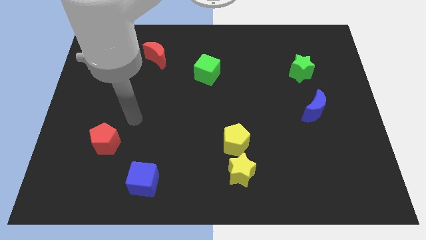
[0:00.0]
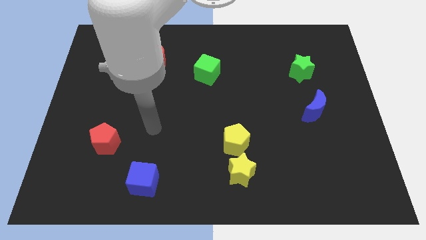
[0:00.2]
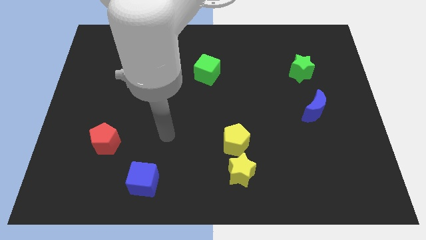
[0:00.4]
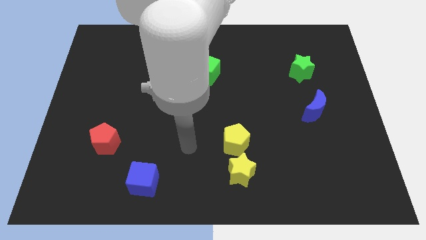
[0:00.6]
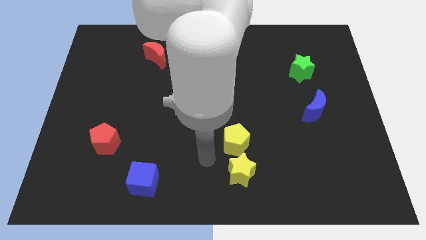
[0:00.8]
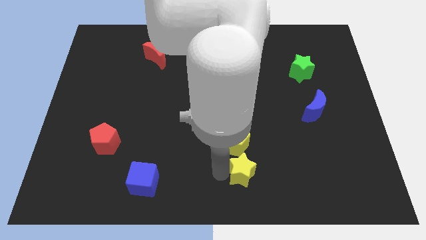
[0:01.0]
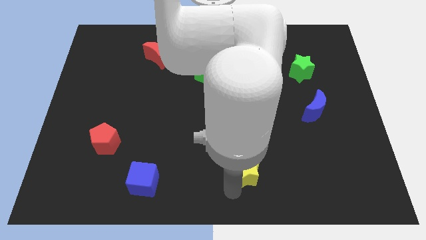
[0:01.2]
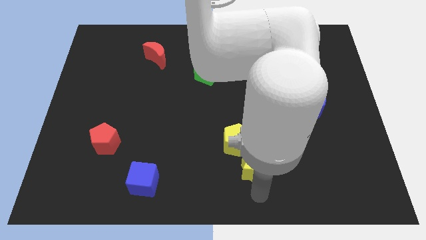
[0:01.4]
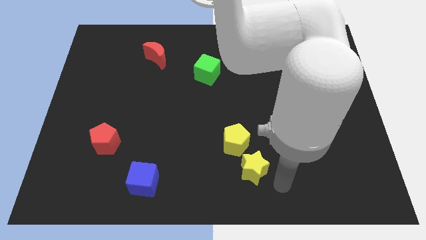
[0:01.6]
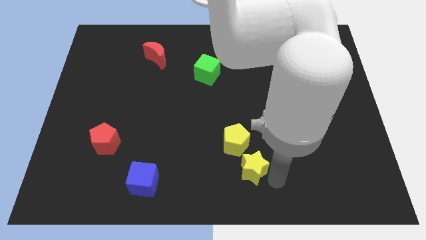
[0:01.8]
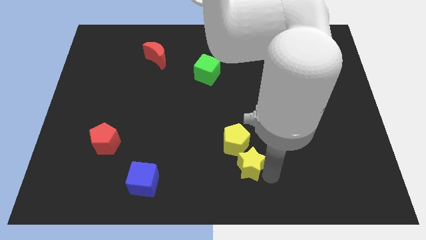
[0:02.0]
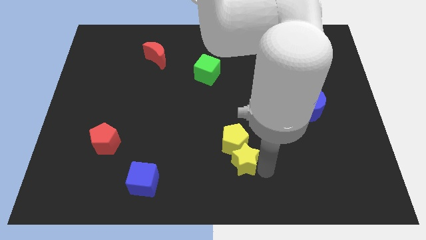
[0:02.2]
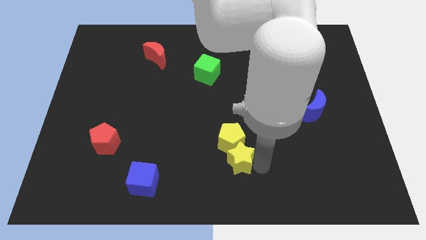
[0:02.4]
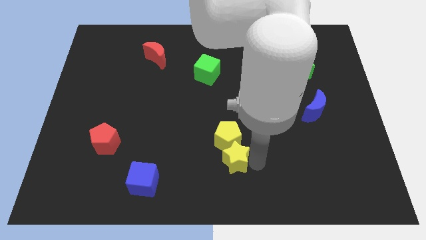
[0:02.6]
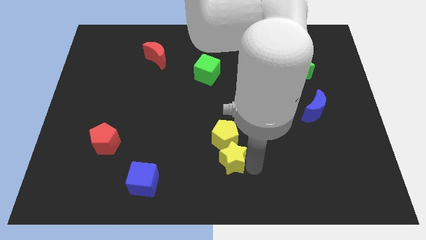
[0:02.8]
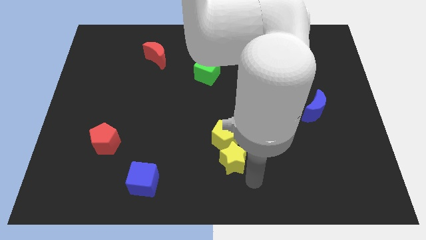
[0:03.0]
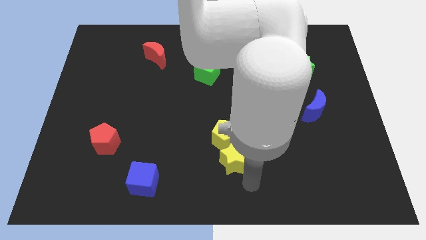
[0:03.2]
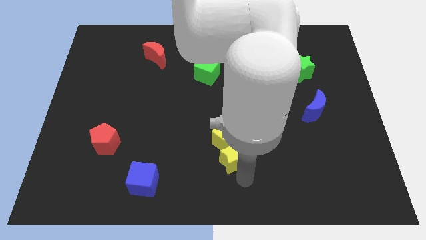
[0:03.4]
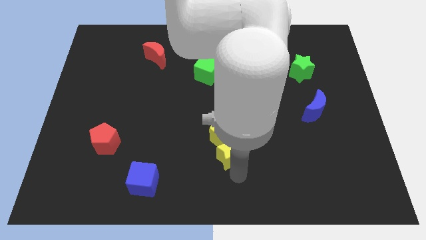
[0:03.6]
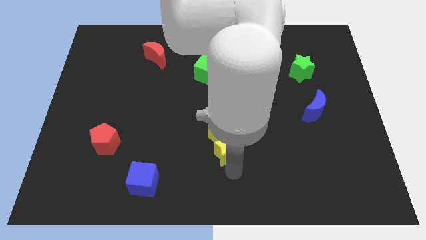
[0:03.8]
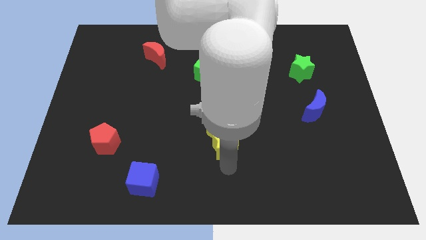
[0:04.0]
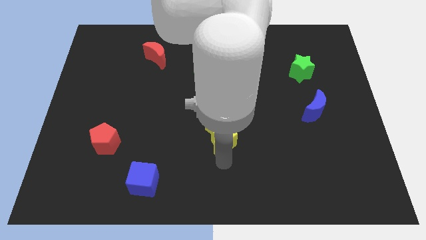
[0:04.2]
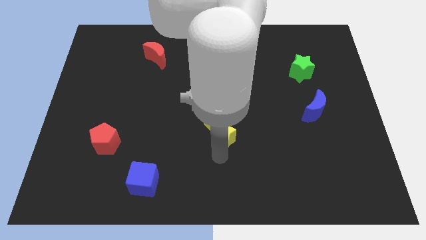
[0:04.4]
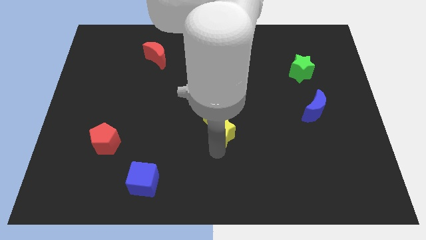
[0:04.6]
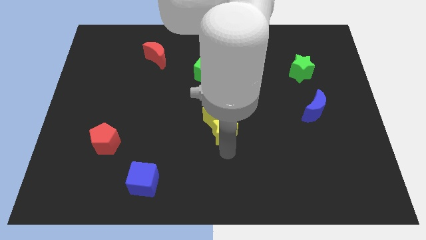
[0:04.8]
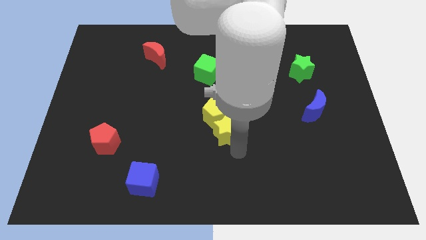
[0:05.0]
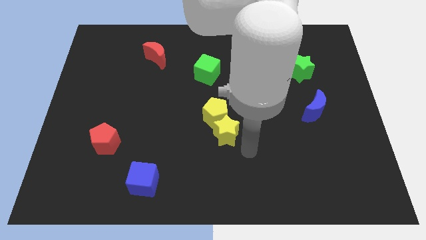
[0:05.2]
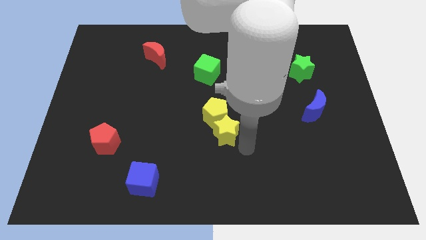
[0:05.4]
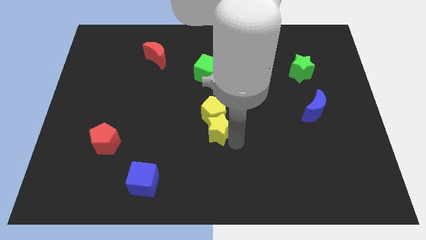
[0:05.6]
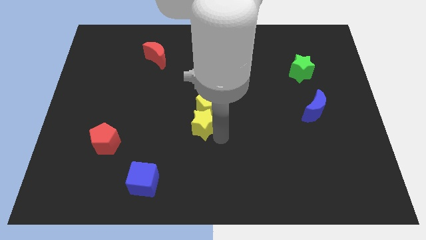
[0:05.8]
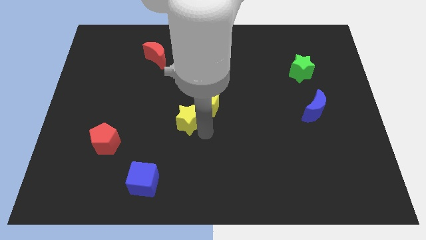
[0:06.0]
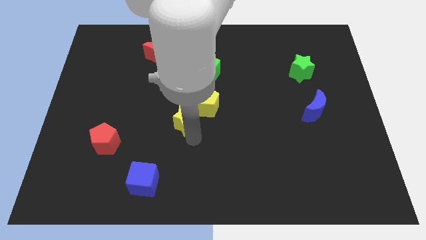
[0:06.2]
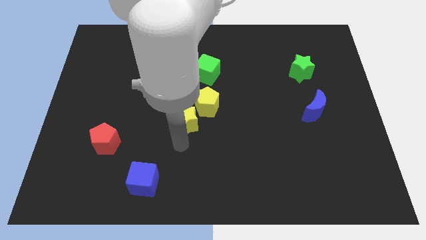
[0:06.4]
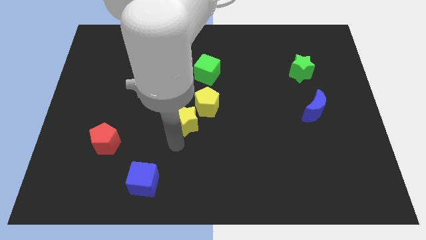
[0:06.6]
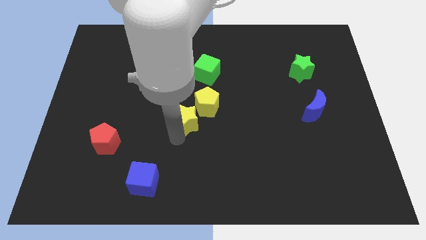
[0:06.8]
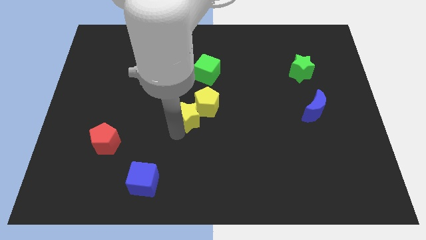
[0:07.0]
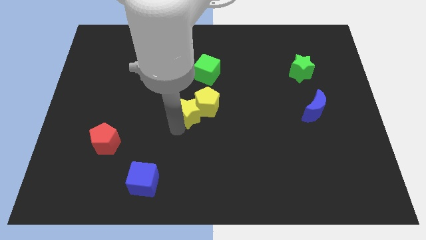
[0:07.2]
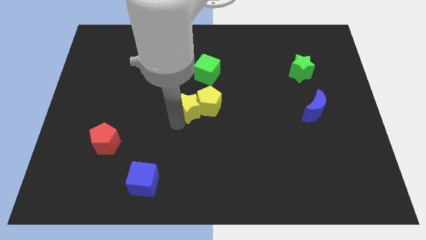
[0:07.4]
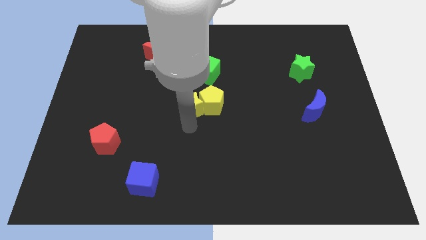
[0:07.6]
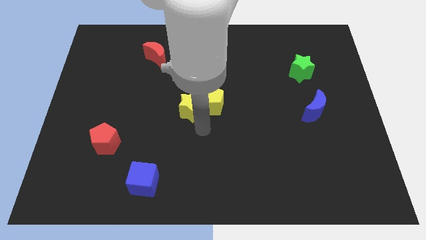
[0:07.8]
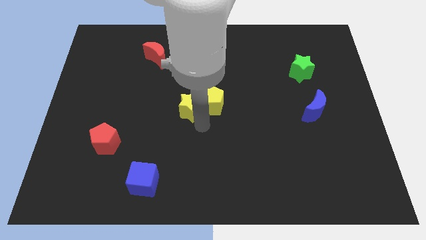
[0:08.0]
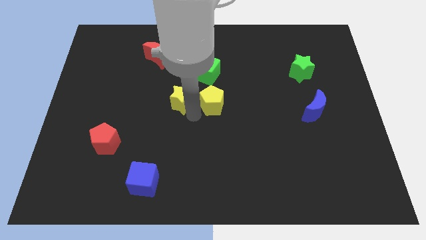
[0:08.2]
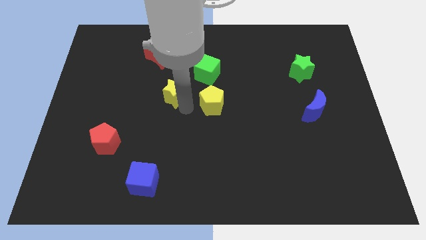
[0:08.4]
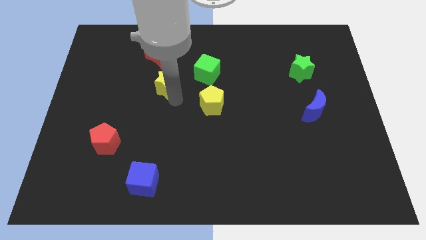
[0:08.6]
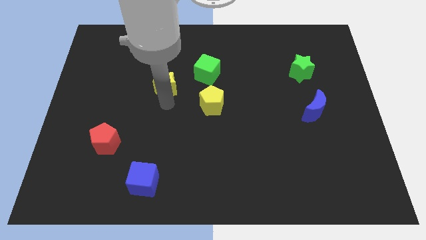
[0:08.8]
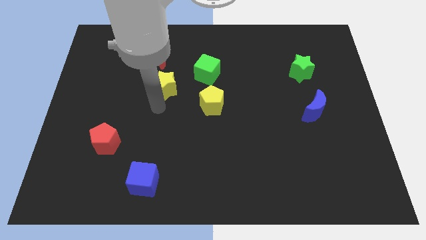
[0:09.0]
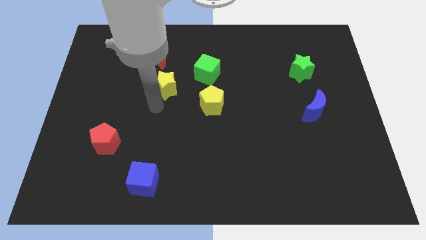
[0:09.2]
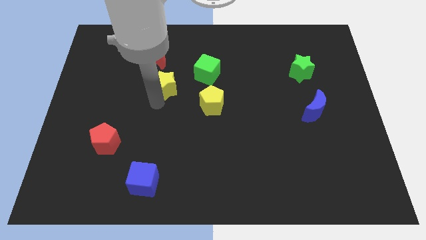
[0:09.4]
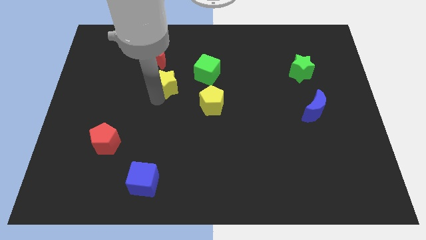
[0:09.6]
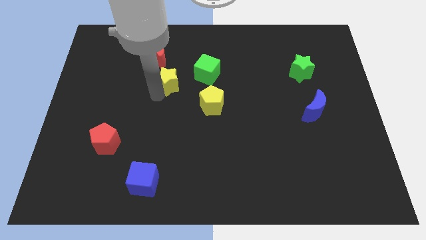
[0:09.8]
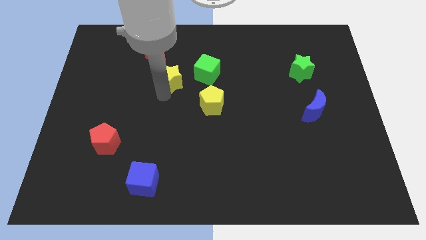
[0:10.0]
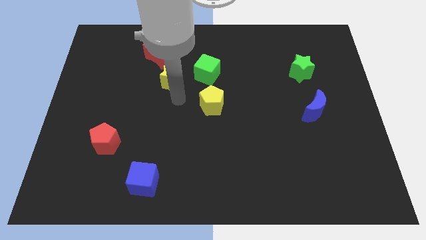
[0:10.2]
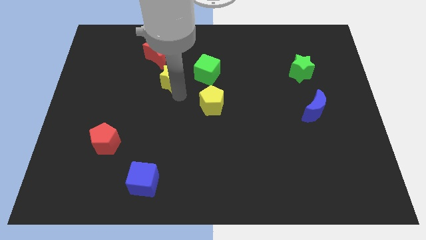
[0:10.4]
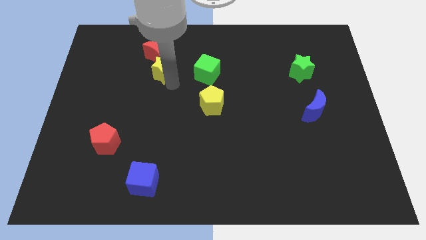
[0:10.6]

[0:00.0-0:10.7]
push the yellow star next to the red moon
